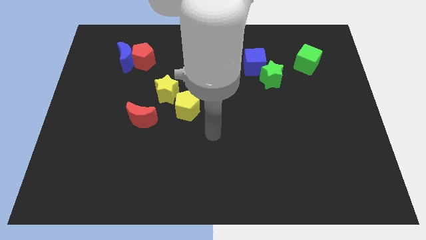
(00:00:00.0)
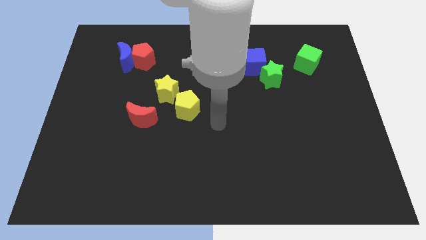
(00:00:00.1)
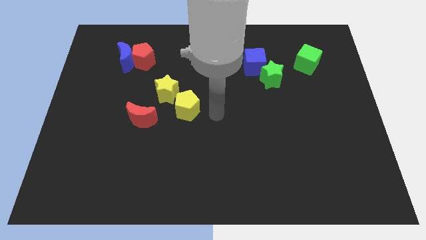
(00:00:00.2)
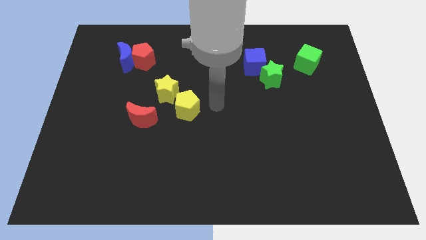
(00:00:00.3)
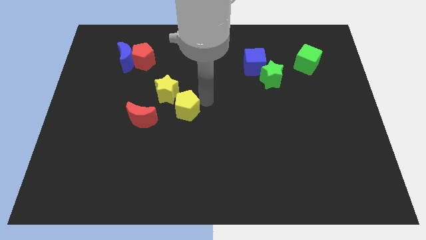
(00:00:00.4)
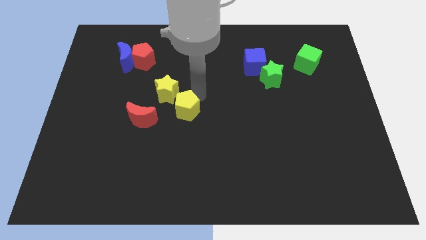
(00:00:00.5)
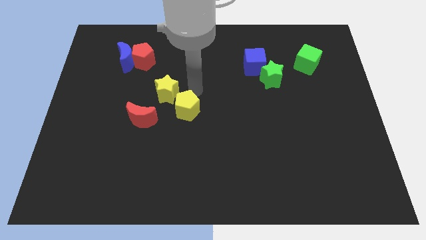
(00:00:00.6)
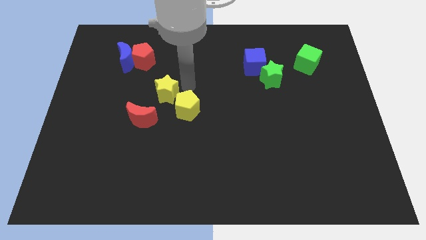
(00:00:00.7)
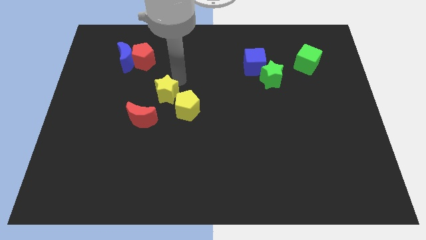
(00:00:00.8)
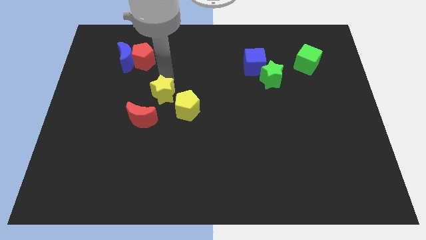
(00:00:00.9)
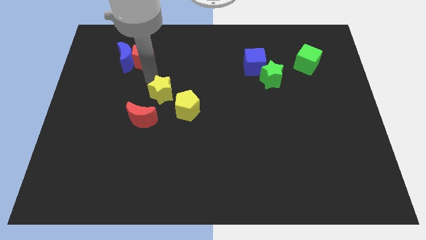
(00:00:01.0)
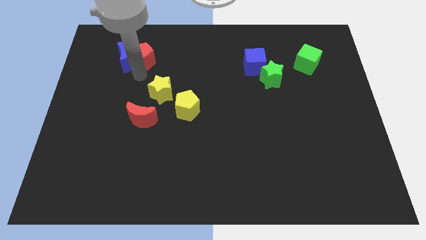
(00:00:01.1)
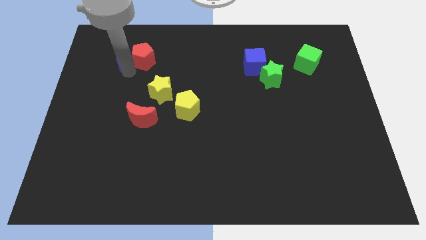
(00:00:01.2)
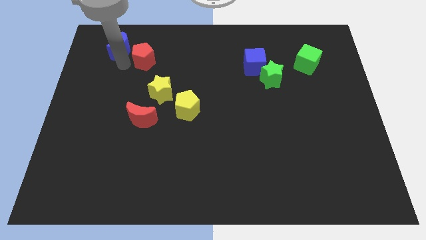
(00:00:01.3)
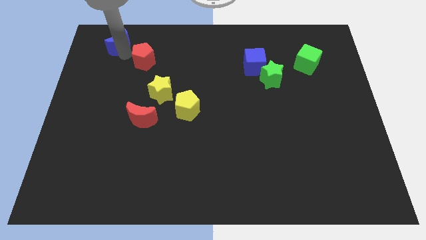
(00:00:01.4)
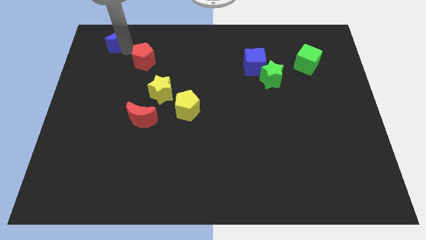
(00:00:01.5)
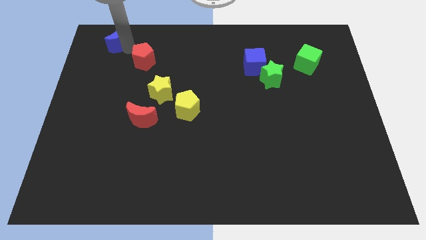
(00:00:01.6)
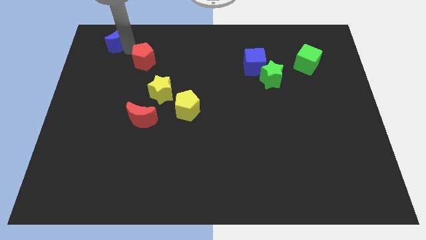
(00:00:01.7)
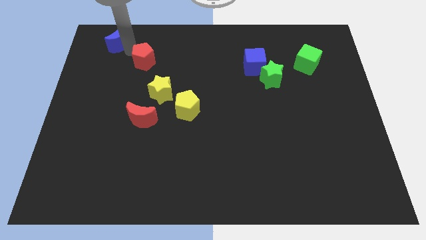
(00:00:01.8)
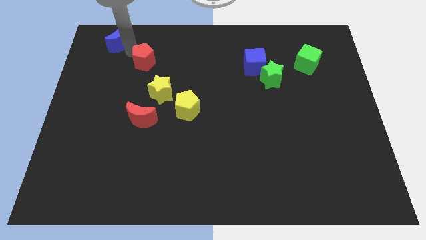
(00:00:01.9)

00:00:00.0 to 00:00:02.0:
separate the red pentagon from the blue moon

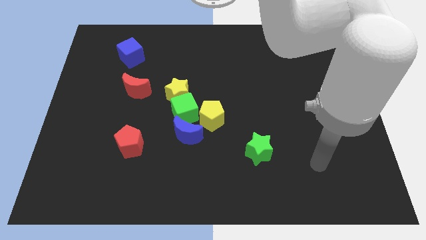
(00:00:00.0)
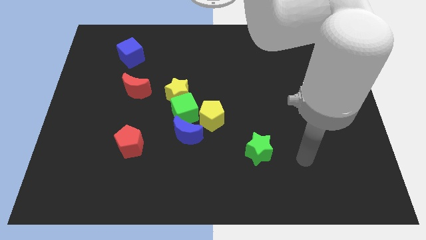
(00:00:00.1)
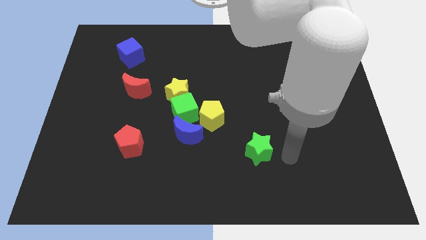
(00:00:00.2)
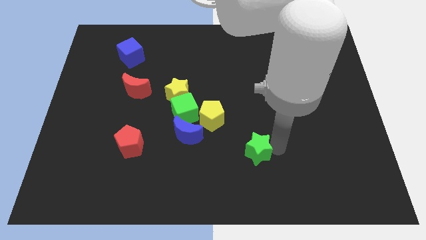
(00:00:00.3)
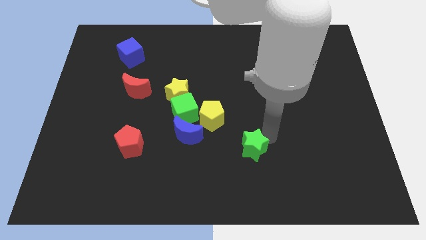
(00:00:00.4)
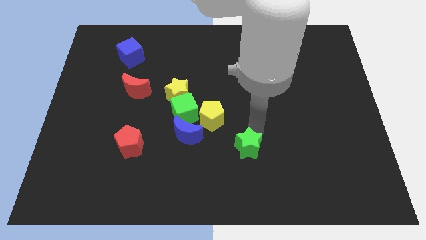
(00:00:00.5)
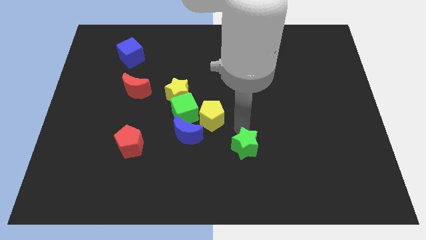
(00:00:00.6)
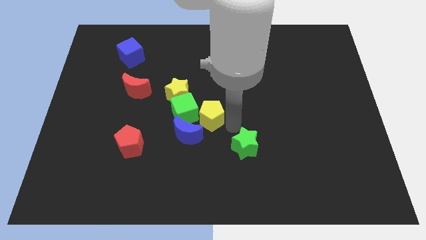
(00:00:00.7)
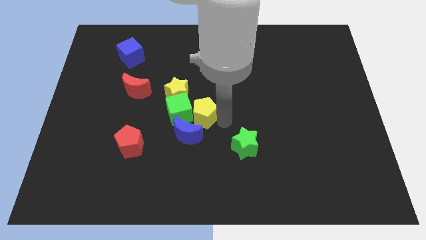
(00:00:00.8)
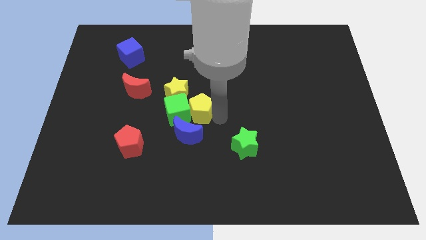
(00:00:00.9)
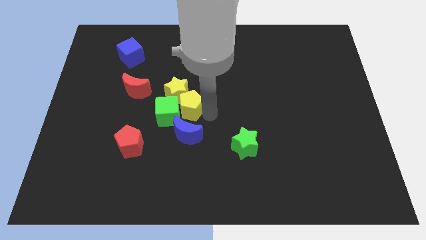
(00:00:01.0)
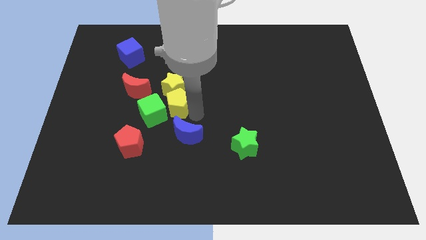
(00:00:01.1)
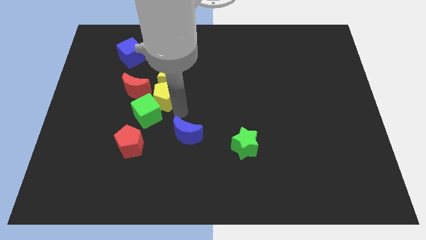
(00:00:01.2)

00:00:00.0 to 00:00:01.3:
move the yellow star away from the green cube

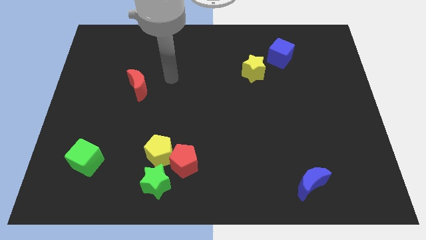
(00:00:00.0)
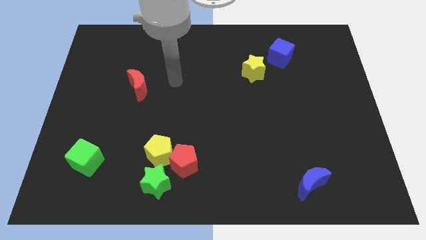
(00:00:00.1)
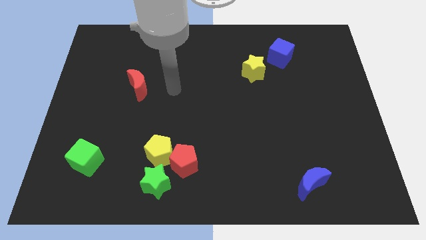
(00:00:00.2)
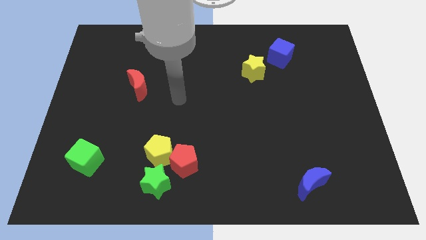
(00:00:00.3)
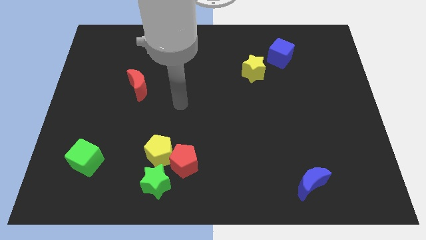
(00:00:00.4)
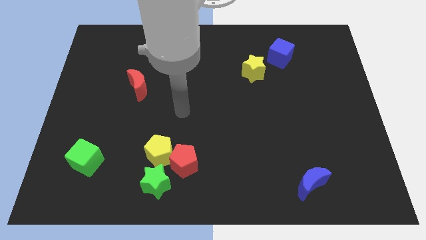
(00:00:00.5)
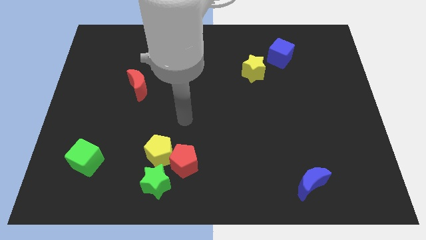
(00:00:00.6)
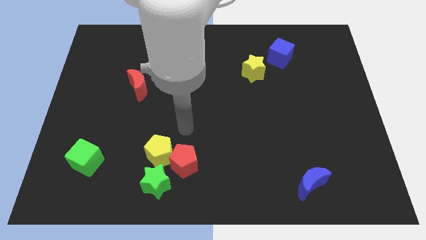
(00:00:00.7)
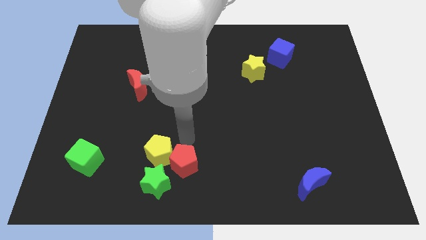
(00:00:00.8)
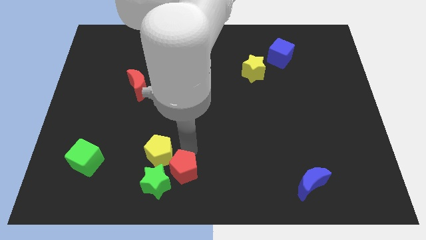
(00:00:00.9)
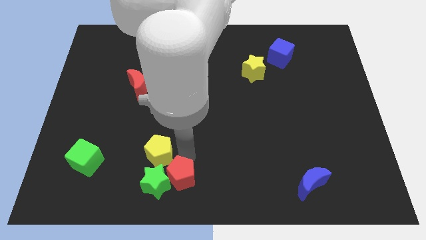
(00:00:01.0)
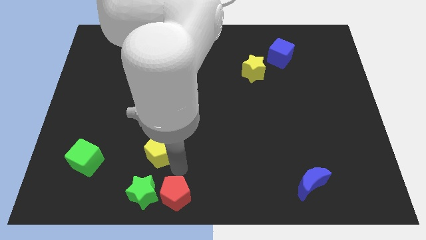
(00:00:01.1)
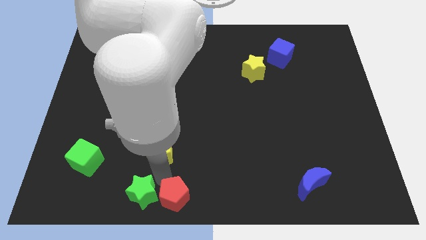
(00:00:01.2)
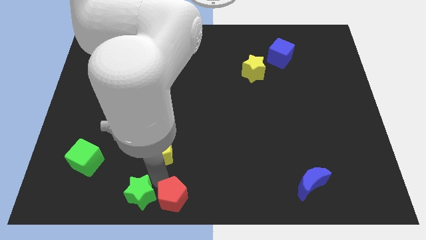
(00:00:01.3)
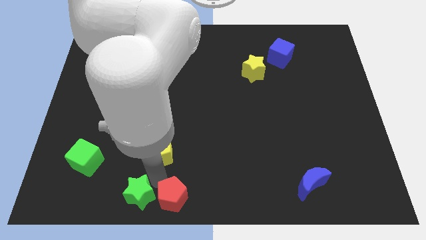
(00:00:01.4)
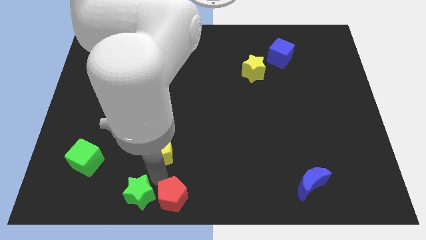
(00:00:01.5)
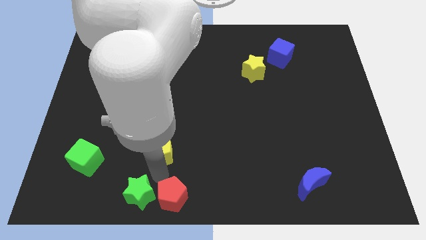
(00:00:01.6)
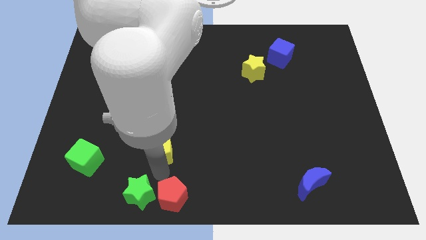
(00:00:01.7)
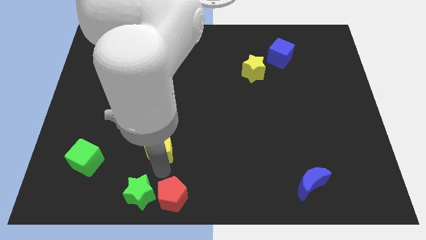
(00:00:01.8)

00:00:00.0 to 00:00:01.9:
separate the yellow pentagon from the red pentagon and green star

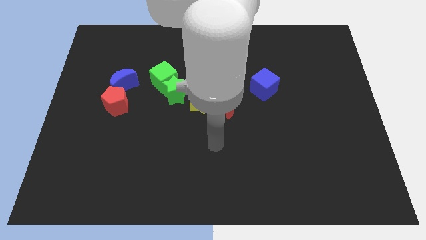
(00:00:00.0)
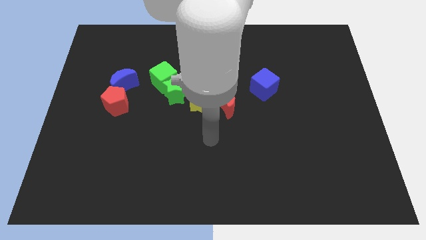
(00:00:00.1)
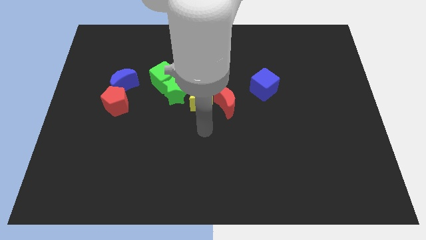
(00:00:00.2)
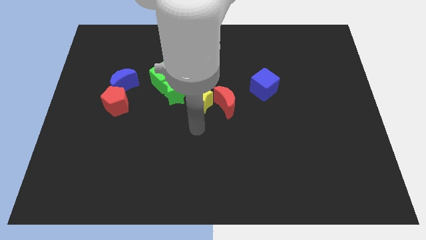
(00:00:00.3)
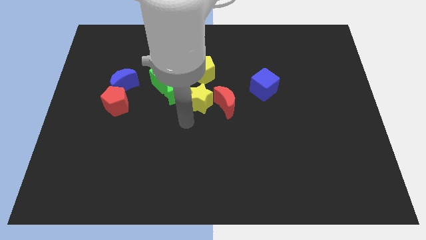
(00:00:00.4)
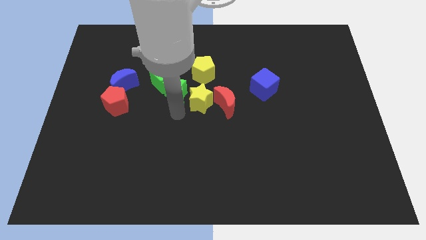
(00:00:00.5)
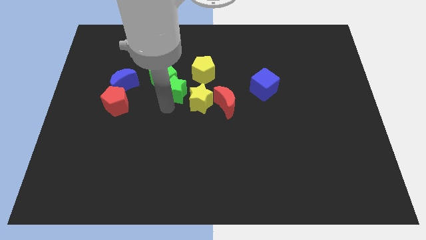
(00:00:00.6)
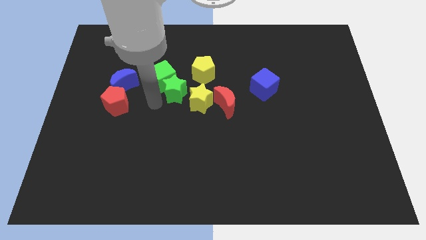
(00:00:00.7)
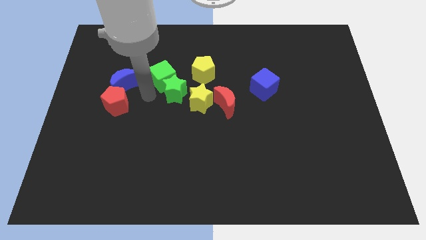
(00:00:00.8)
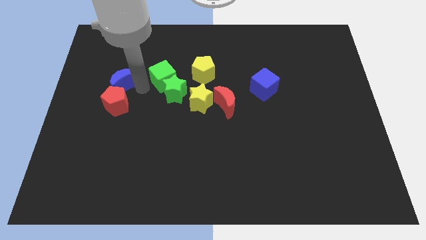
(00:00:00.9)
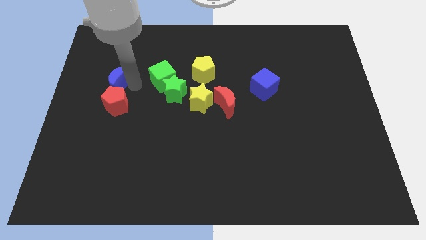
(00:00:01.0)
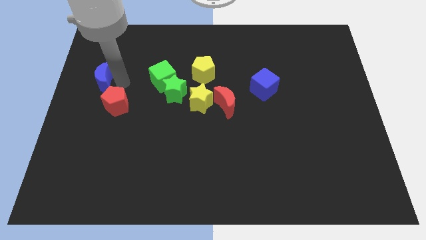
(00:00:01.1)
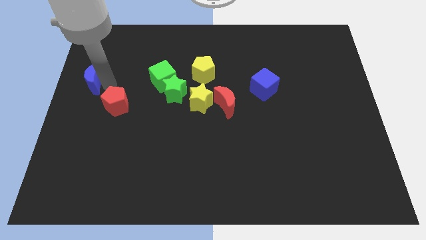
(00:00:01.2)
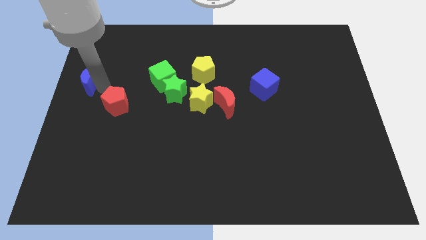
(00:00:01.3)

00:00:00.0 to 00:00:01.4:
move the red pentagon away from the blue moon

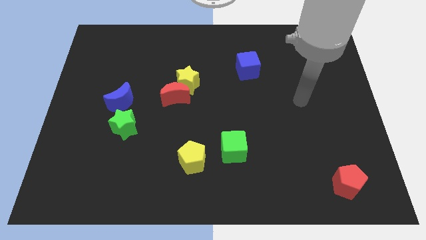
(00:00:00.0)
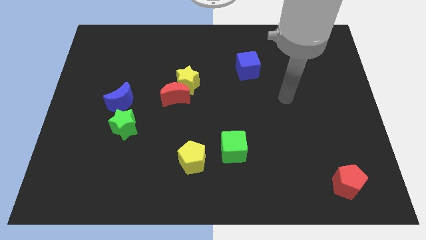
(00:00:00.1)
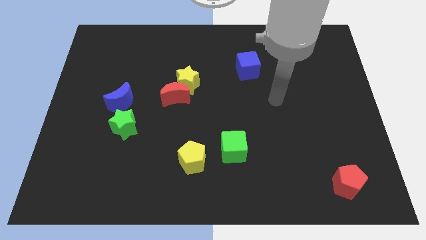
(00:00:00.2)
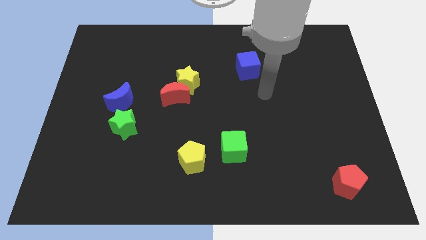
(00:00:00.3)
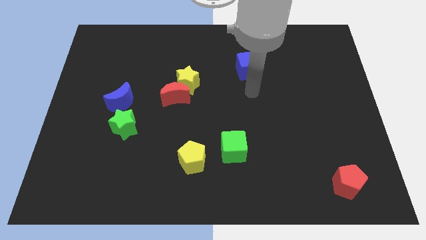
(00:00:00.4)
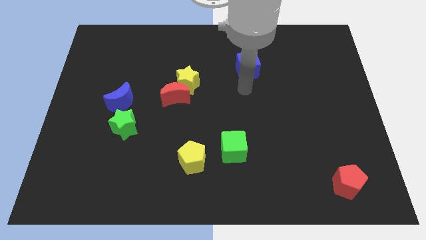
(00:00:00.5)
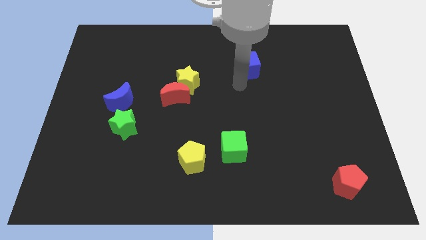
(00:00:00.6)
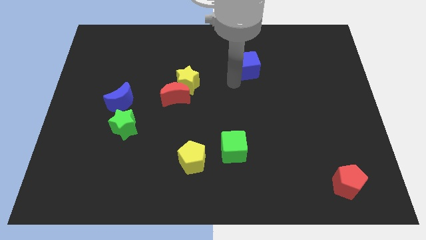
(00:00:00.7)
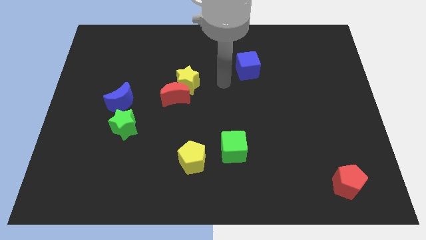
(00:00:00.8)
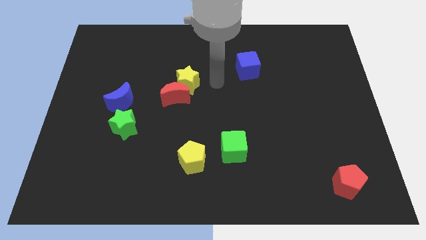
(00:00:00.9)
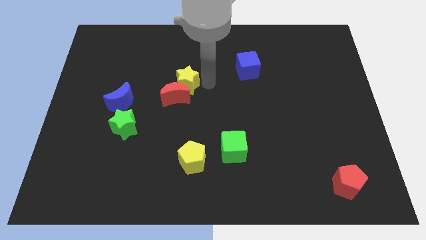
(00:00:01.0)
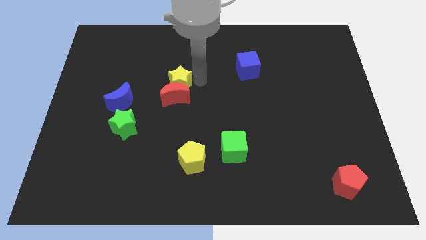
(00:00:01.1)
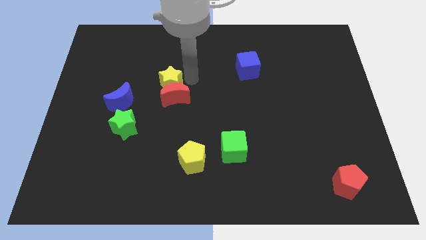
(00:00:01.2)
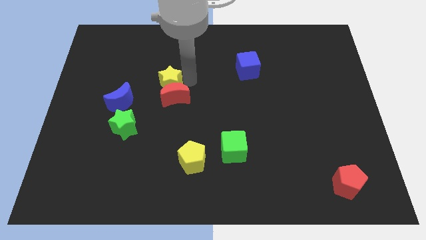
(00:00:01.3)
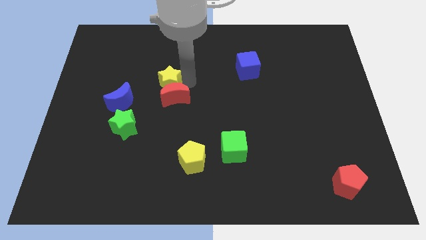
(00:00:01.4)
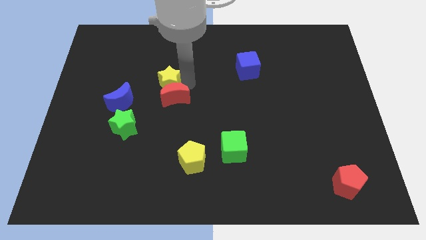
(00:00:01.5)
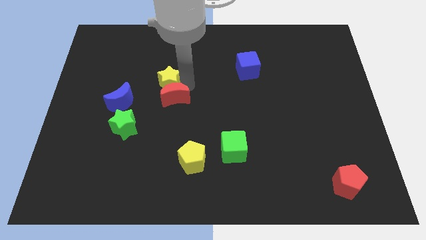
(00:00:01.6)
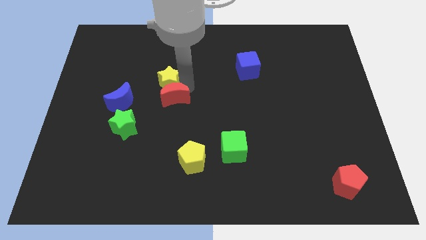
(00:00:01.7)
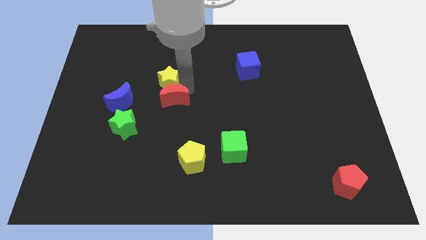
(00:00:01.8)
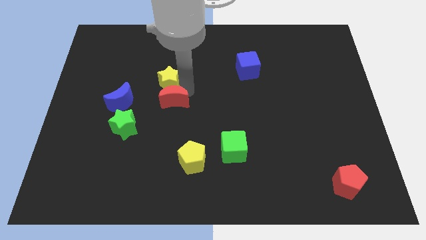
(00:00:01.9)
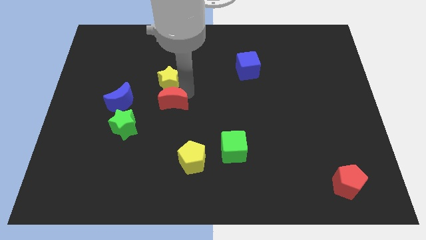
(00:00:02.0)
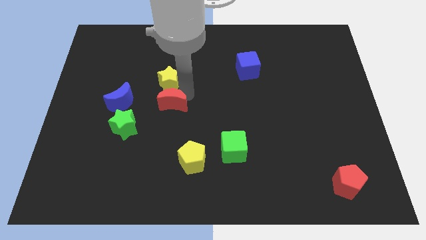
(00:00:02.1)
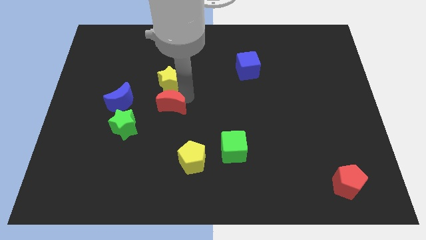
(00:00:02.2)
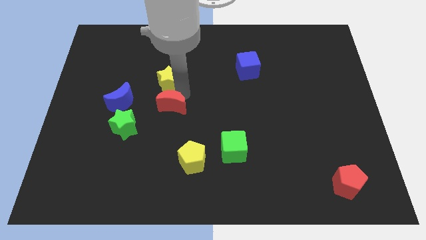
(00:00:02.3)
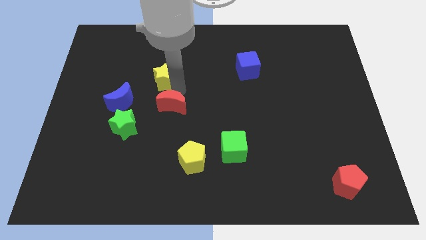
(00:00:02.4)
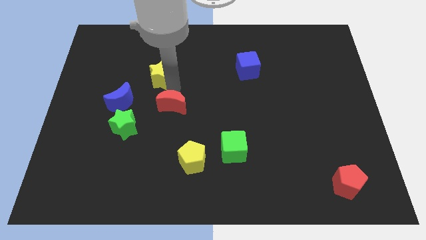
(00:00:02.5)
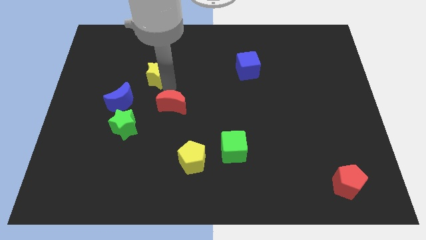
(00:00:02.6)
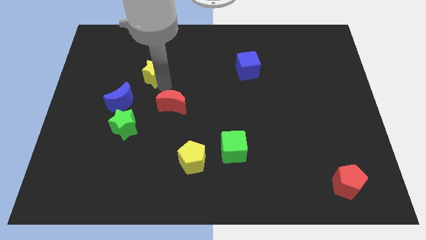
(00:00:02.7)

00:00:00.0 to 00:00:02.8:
separate the red moon from the yellow star
